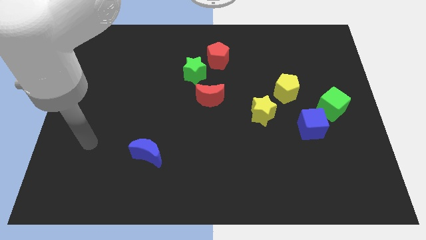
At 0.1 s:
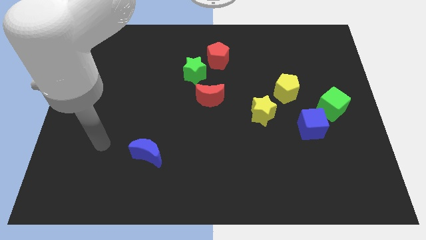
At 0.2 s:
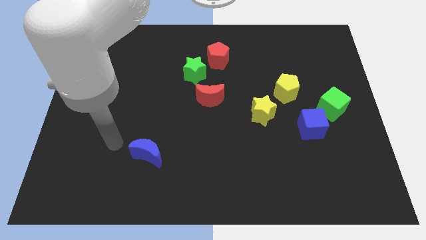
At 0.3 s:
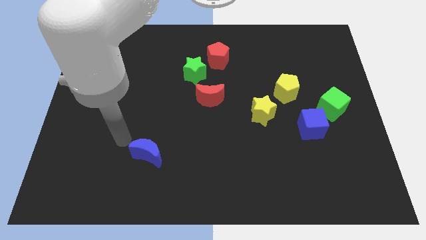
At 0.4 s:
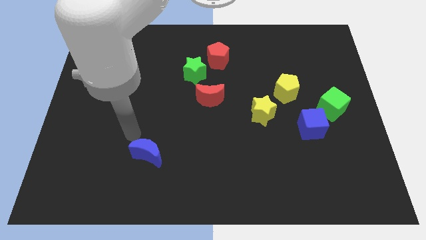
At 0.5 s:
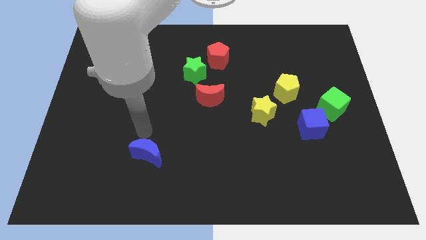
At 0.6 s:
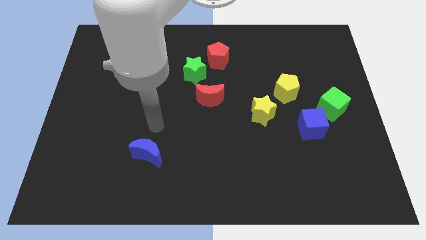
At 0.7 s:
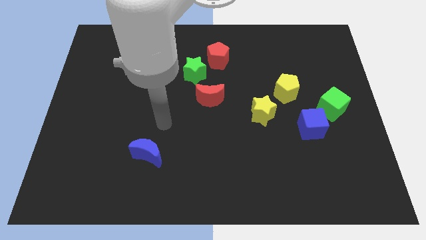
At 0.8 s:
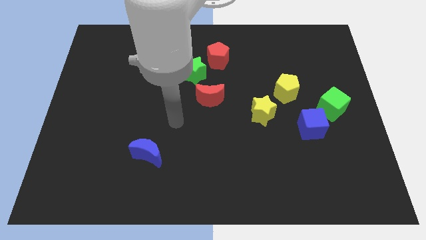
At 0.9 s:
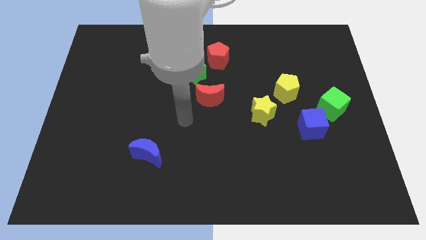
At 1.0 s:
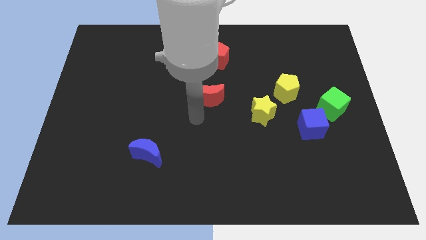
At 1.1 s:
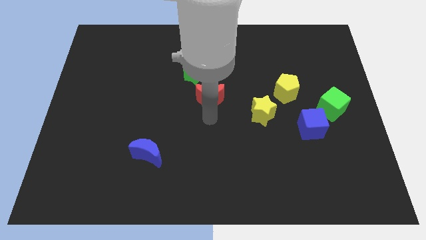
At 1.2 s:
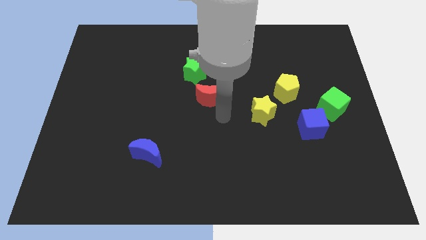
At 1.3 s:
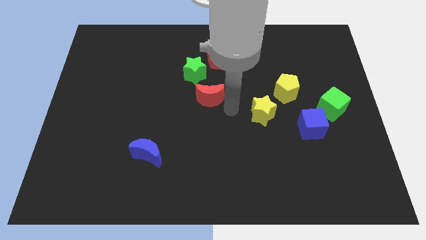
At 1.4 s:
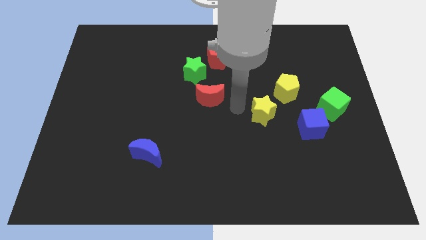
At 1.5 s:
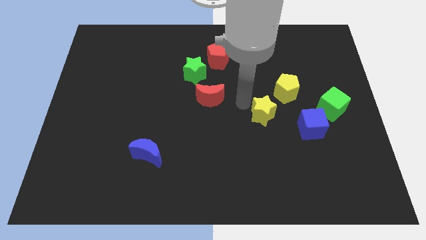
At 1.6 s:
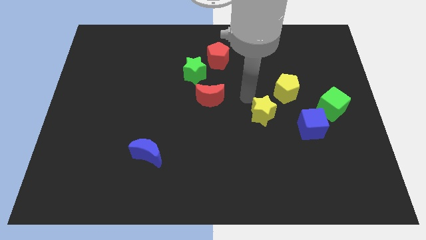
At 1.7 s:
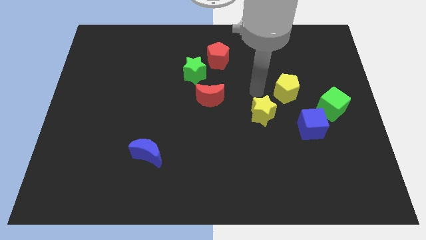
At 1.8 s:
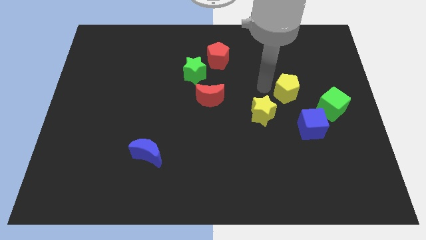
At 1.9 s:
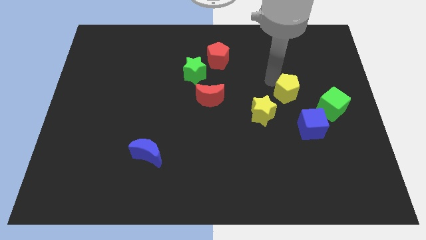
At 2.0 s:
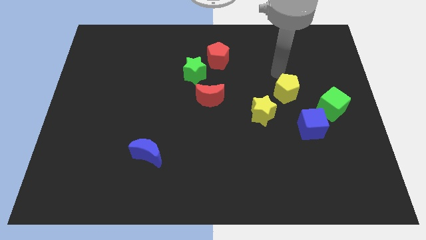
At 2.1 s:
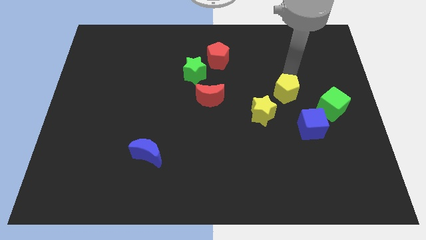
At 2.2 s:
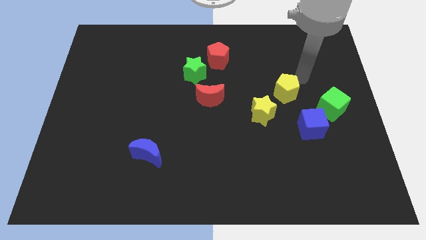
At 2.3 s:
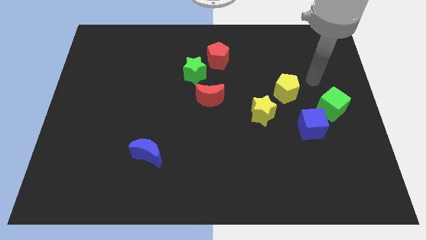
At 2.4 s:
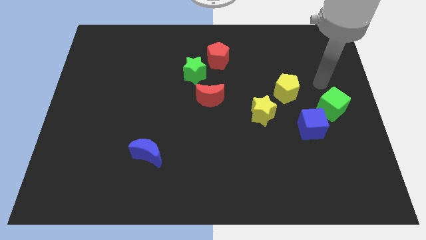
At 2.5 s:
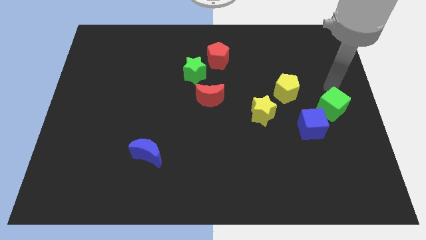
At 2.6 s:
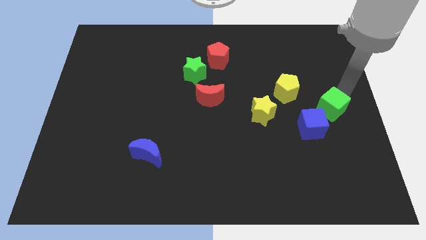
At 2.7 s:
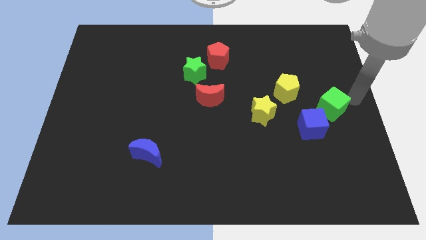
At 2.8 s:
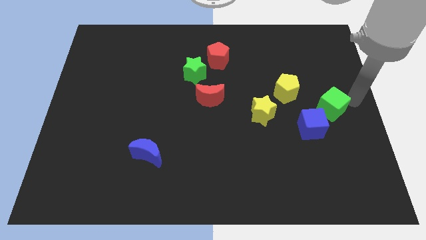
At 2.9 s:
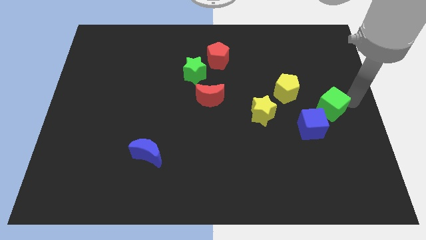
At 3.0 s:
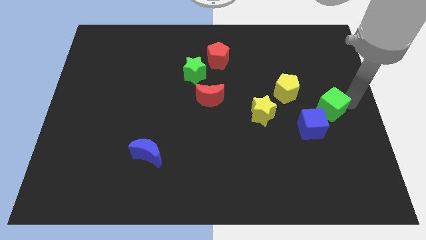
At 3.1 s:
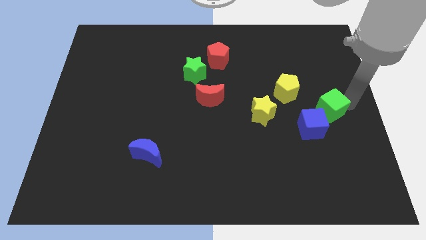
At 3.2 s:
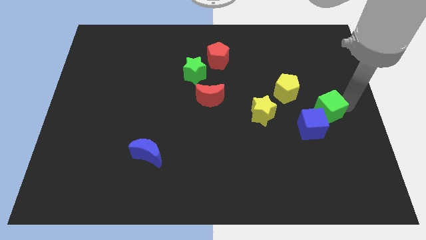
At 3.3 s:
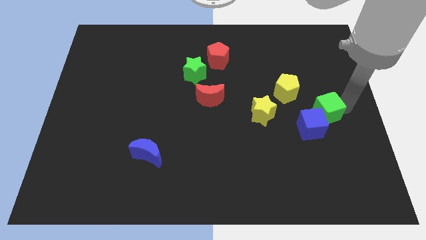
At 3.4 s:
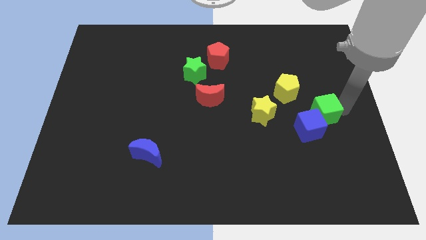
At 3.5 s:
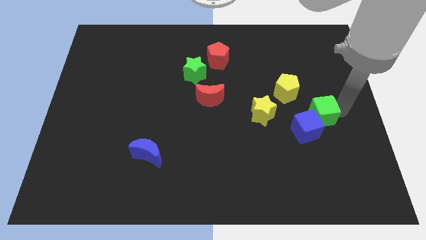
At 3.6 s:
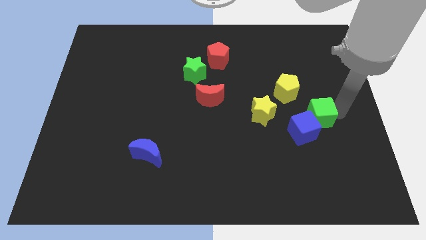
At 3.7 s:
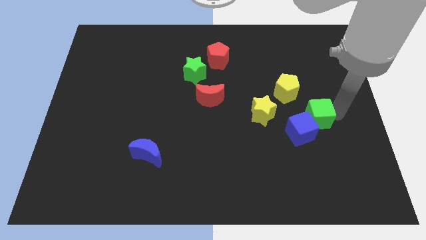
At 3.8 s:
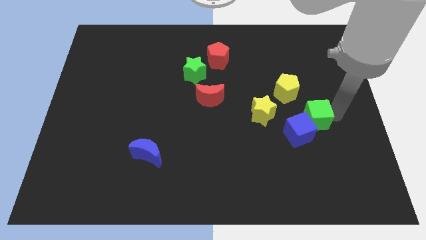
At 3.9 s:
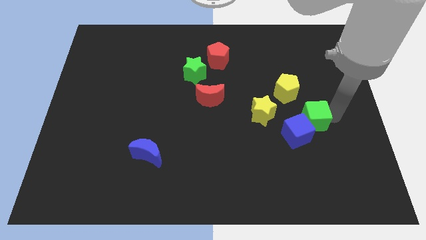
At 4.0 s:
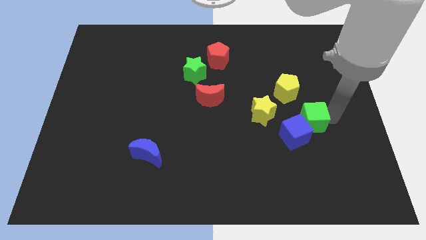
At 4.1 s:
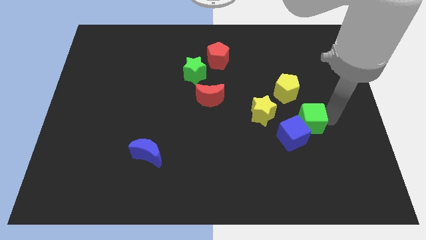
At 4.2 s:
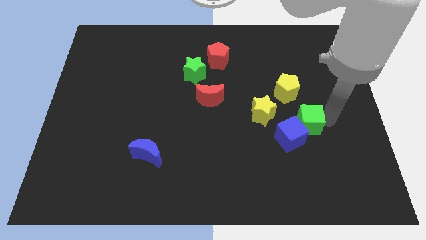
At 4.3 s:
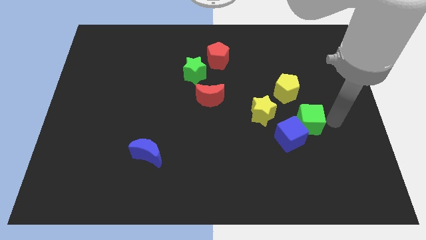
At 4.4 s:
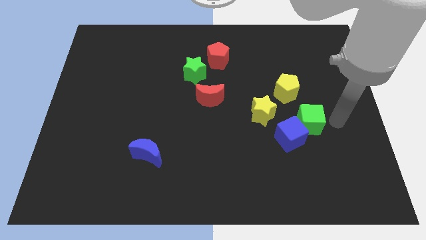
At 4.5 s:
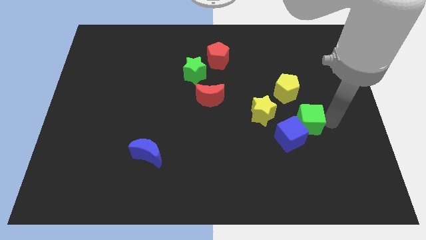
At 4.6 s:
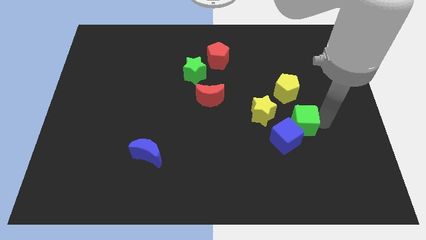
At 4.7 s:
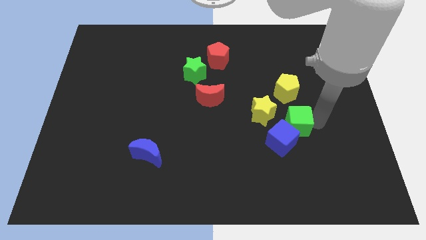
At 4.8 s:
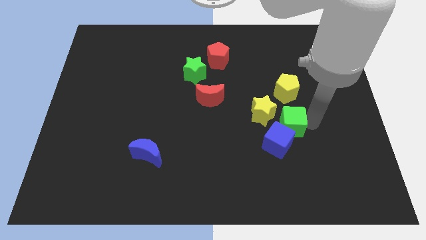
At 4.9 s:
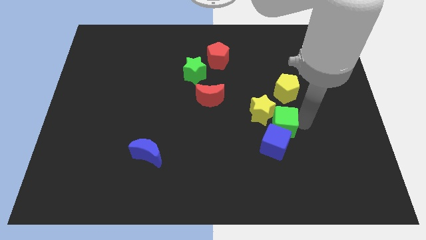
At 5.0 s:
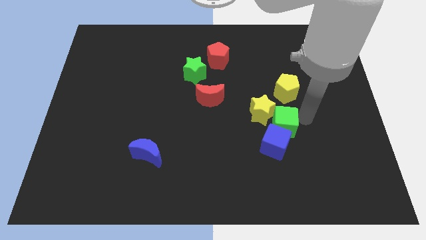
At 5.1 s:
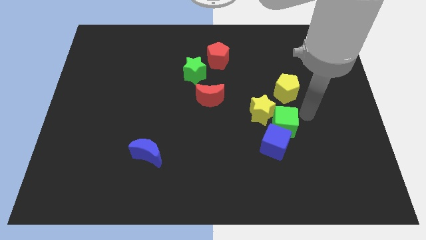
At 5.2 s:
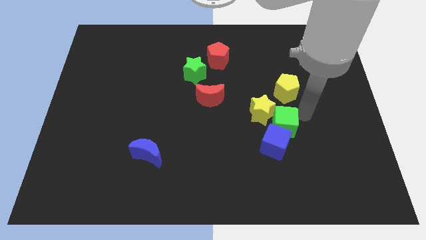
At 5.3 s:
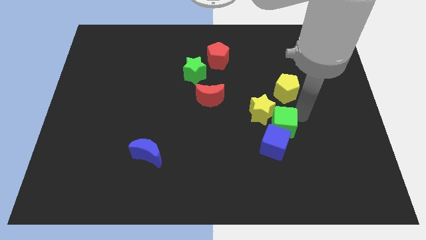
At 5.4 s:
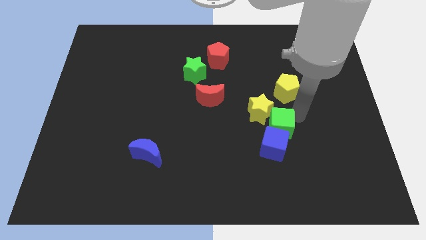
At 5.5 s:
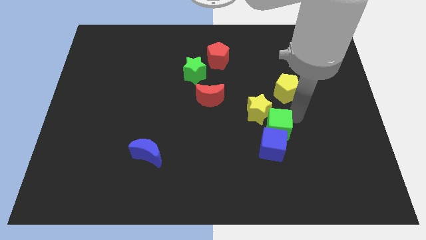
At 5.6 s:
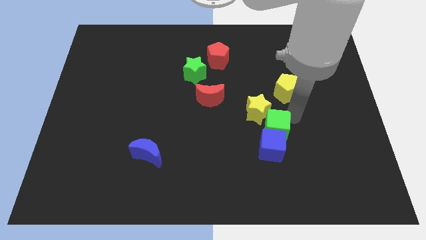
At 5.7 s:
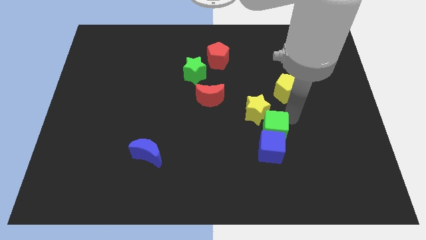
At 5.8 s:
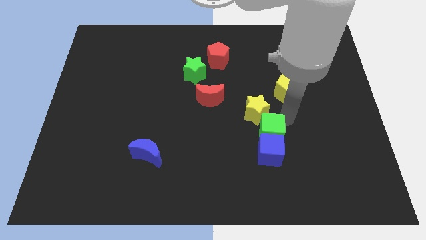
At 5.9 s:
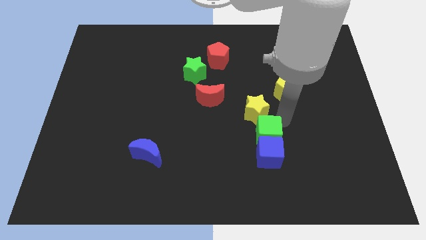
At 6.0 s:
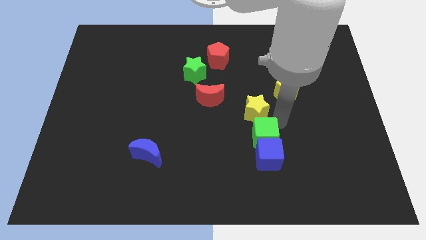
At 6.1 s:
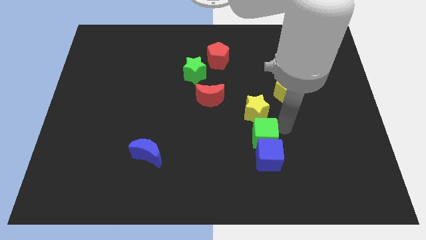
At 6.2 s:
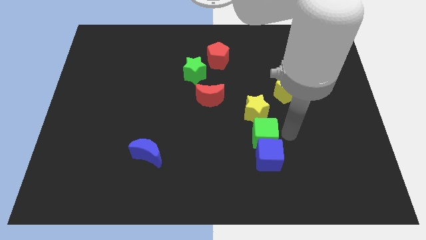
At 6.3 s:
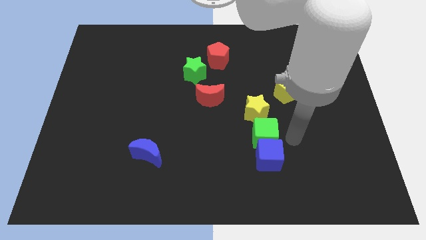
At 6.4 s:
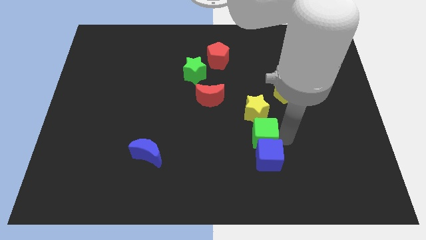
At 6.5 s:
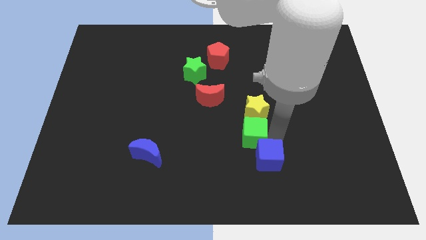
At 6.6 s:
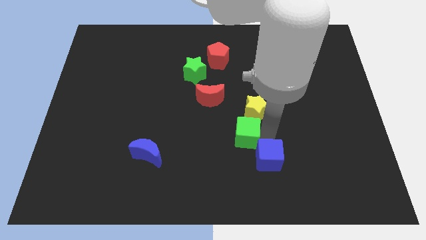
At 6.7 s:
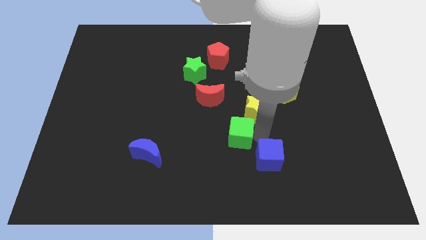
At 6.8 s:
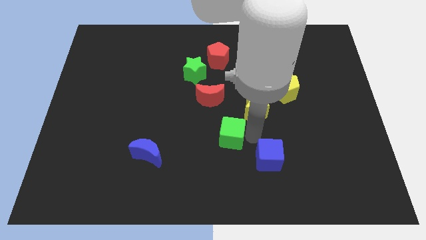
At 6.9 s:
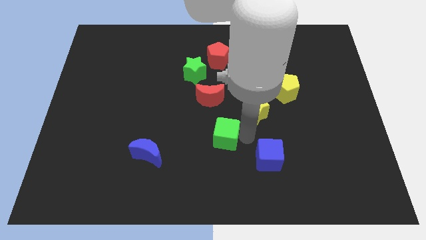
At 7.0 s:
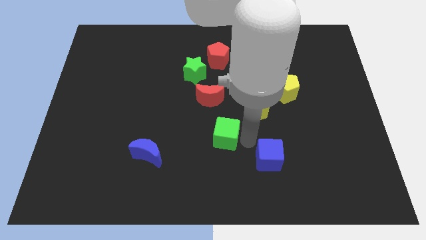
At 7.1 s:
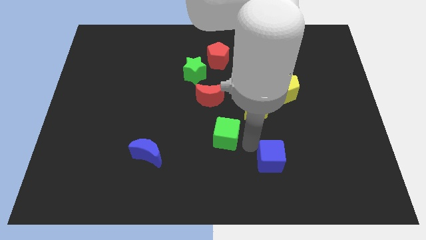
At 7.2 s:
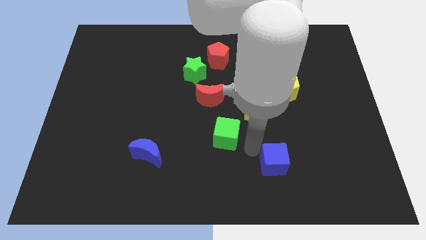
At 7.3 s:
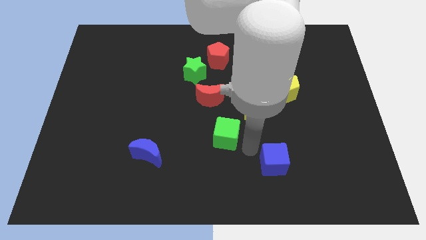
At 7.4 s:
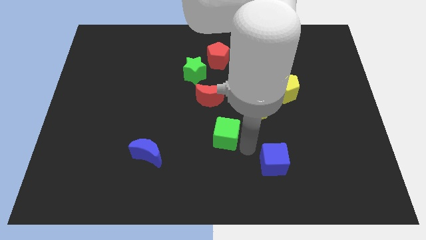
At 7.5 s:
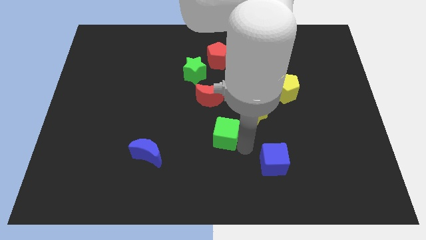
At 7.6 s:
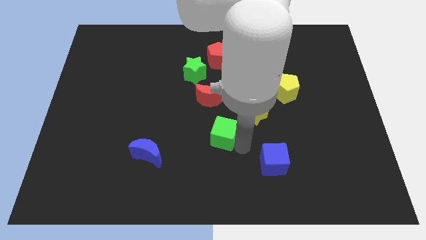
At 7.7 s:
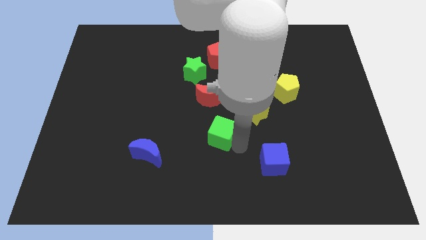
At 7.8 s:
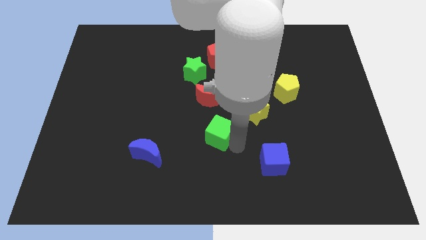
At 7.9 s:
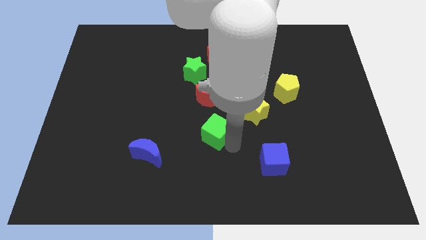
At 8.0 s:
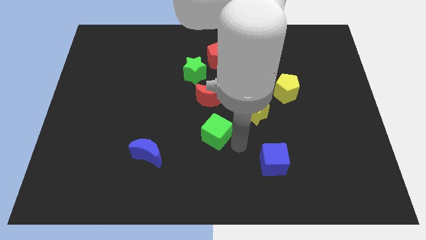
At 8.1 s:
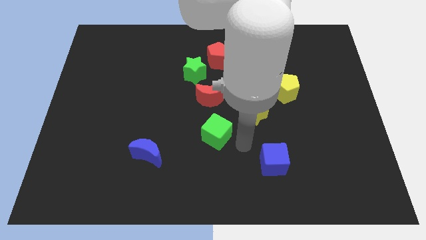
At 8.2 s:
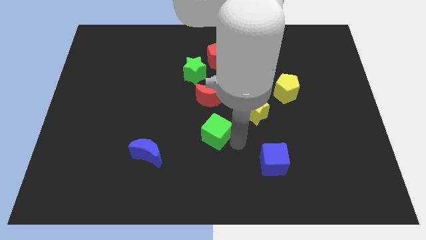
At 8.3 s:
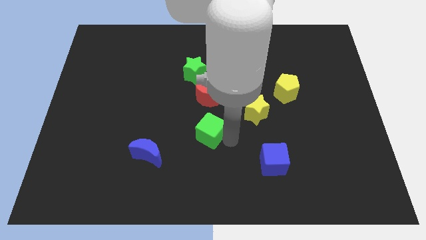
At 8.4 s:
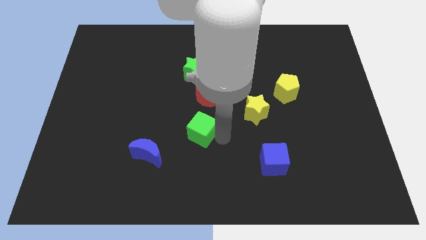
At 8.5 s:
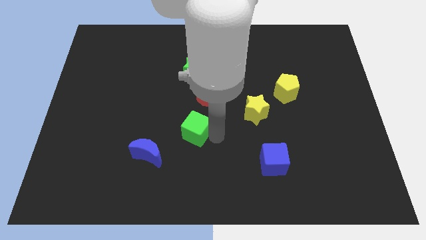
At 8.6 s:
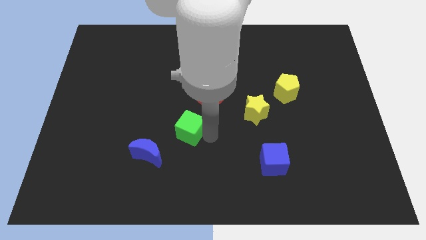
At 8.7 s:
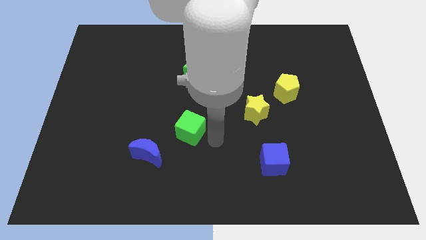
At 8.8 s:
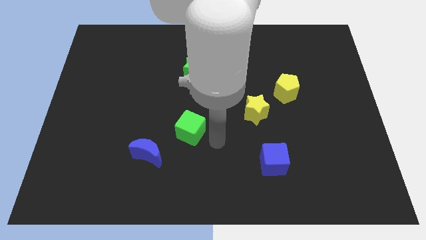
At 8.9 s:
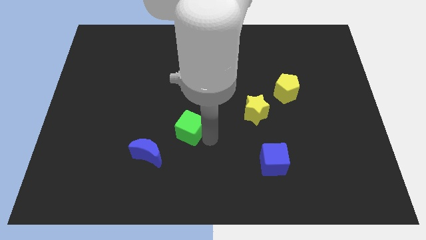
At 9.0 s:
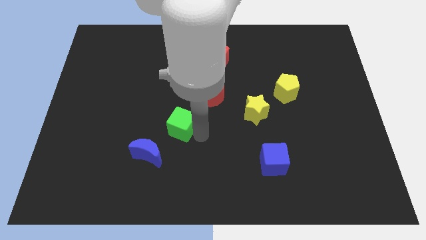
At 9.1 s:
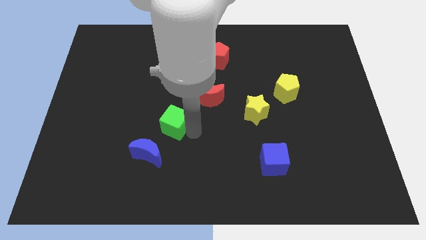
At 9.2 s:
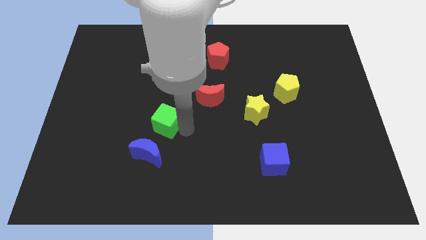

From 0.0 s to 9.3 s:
slide the green cube to the top side of the blue moon
